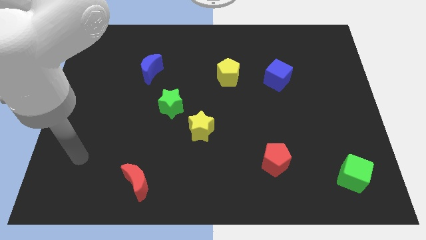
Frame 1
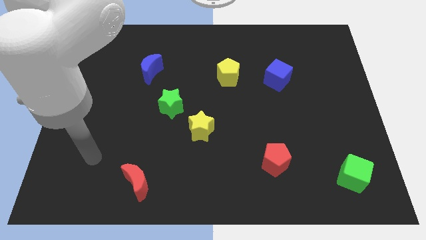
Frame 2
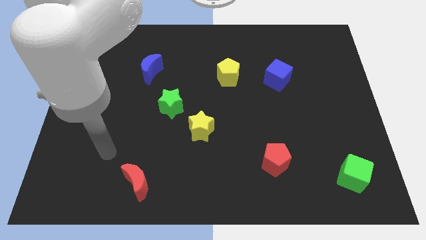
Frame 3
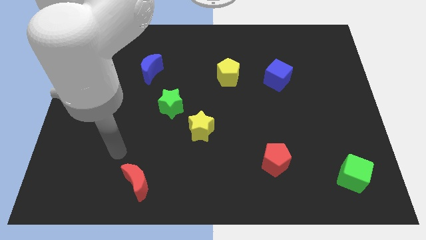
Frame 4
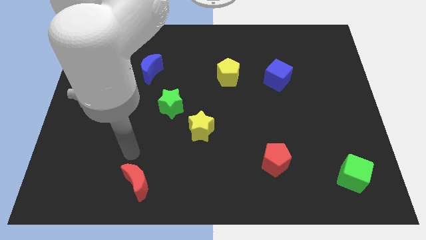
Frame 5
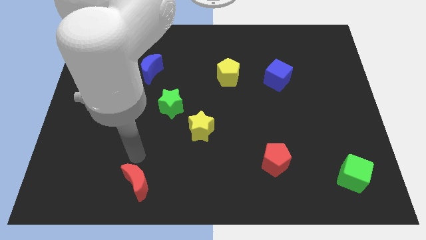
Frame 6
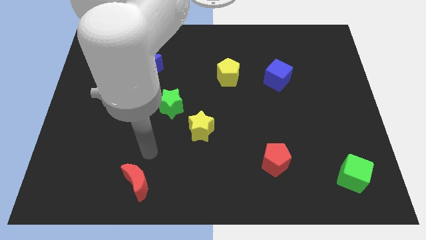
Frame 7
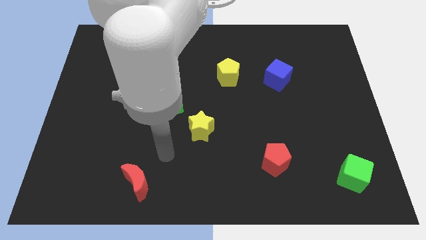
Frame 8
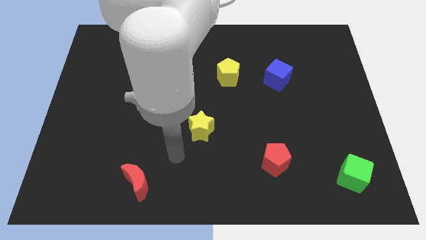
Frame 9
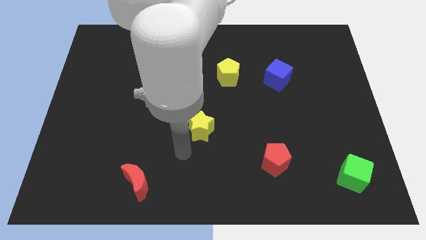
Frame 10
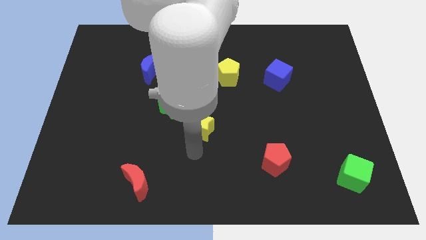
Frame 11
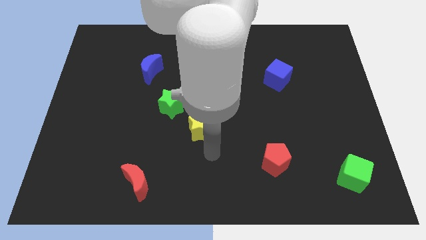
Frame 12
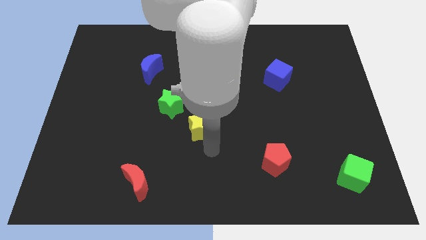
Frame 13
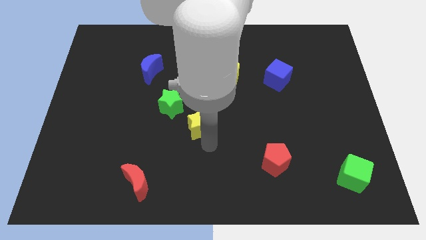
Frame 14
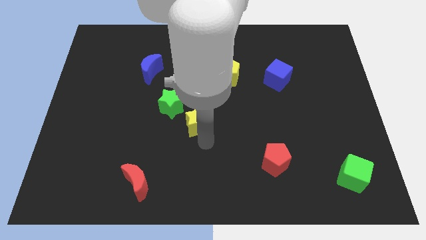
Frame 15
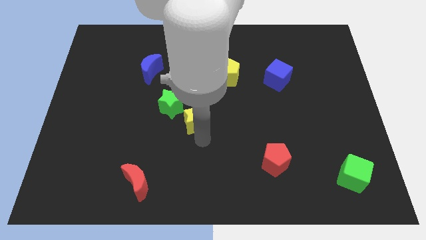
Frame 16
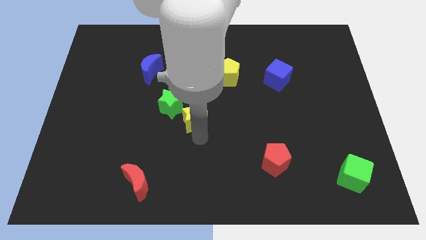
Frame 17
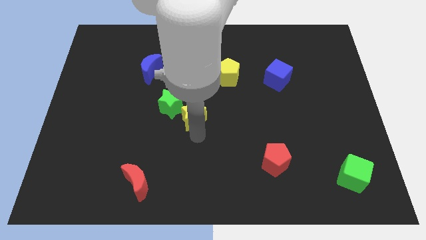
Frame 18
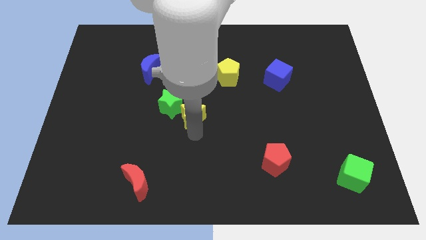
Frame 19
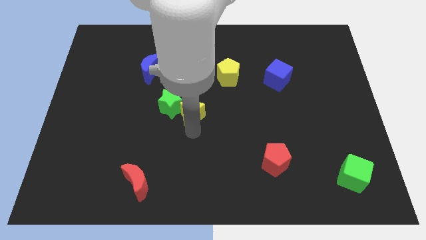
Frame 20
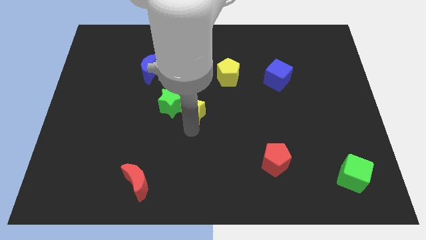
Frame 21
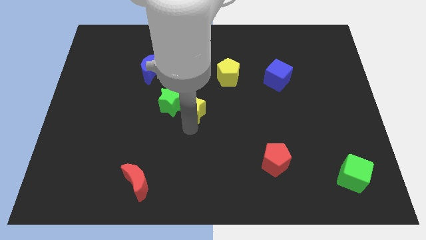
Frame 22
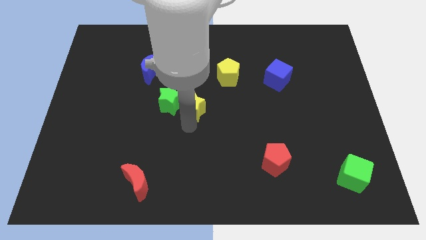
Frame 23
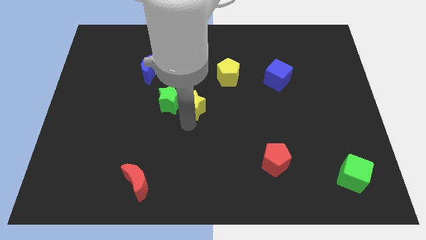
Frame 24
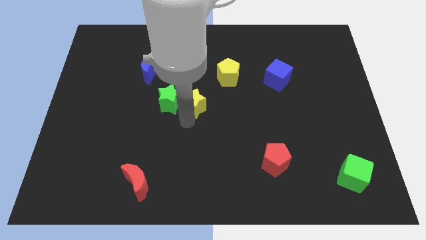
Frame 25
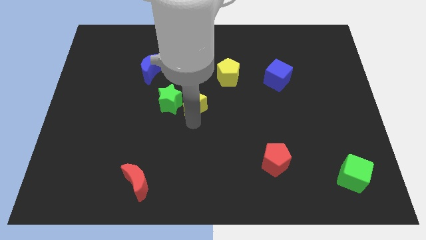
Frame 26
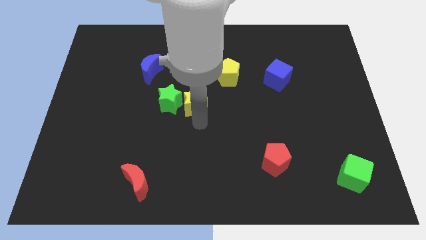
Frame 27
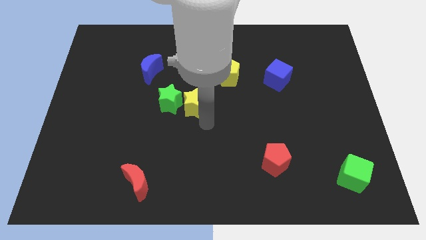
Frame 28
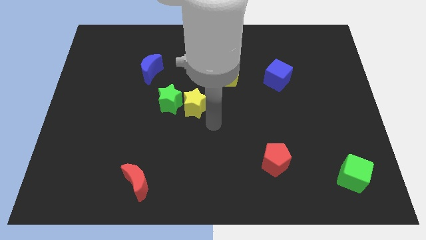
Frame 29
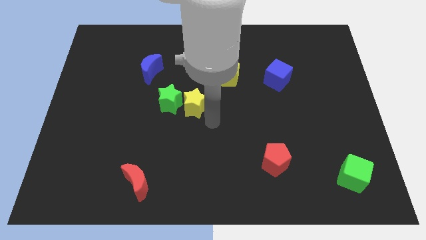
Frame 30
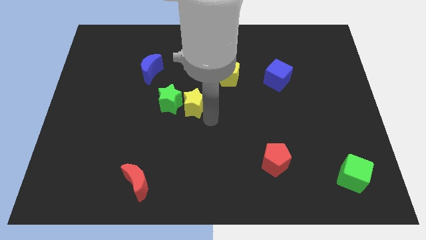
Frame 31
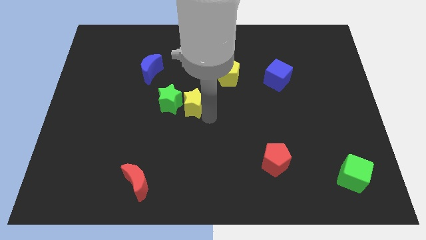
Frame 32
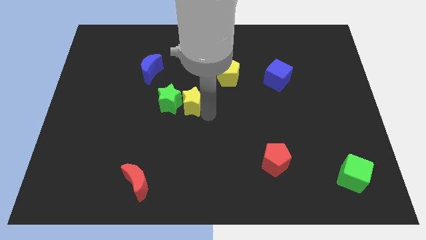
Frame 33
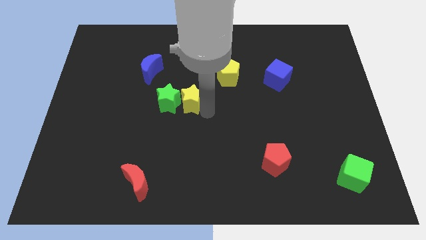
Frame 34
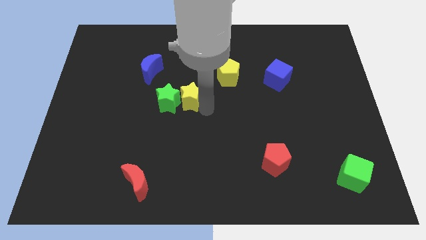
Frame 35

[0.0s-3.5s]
slightly move the yellow star up and left

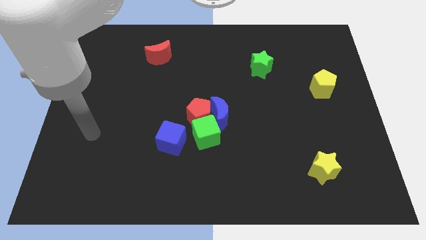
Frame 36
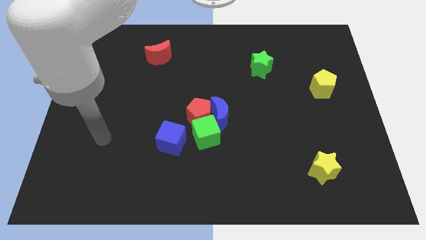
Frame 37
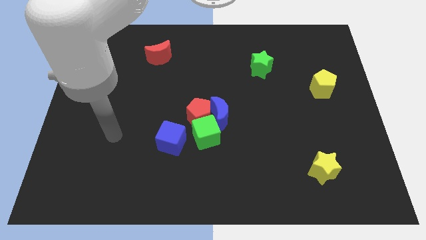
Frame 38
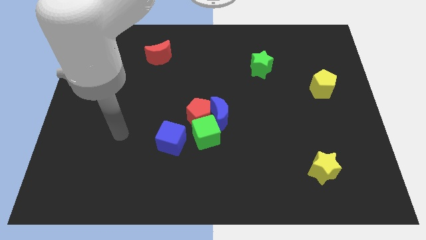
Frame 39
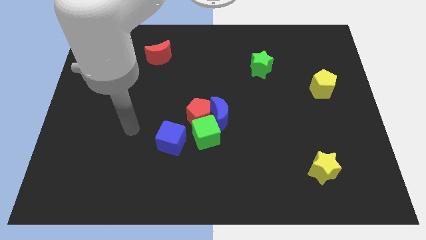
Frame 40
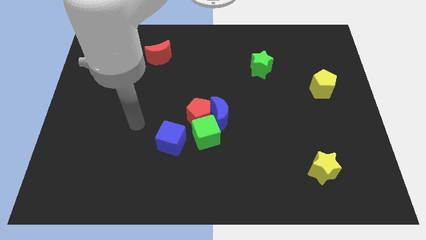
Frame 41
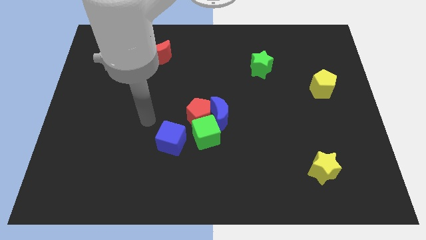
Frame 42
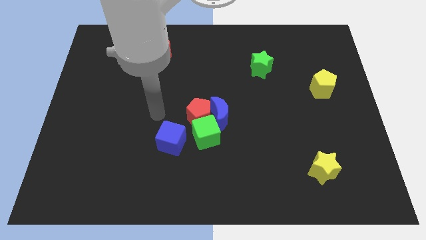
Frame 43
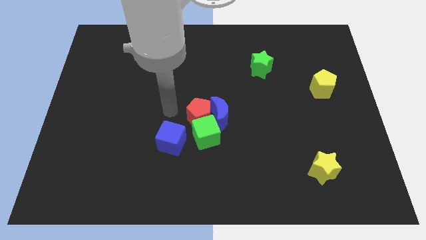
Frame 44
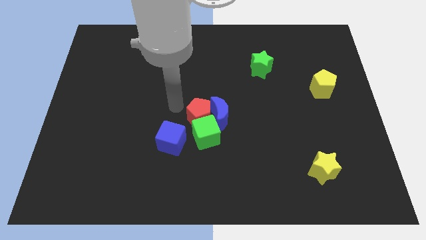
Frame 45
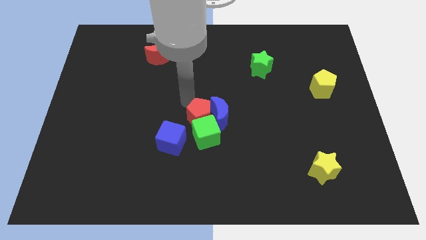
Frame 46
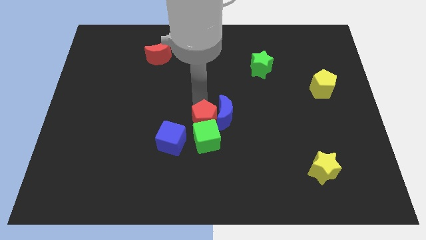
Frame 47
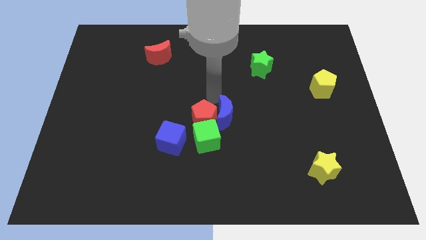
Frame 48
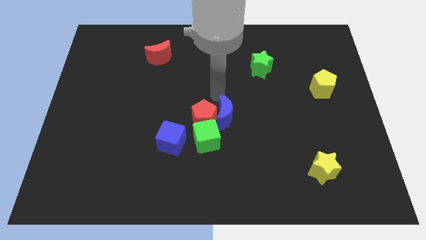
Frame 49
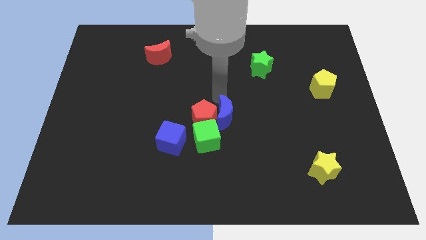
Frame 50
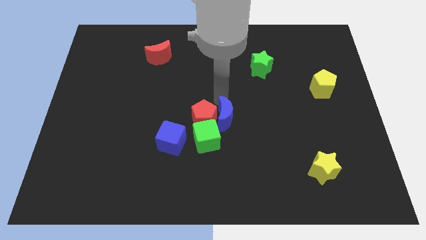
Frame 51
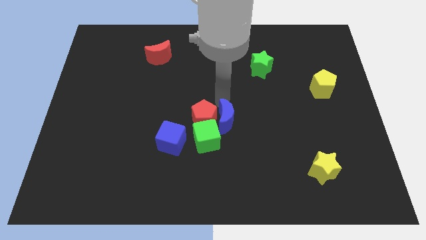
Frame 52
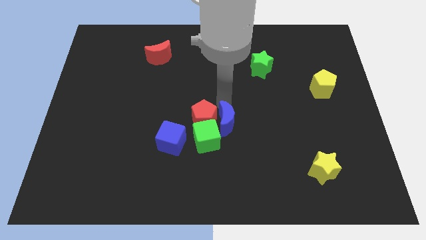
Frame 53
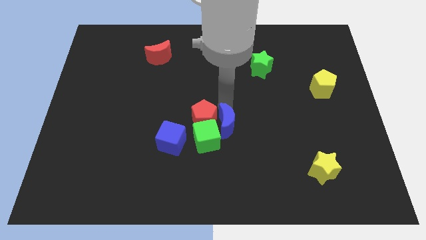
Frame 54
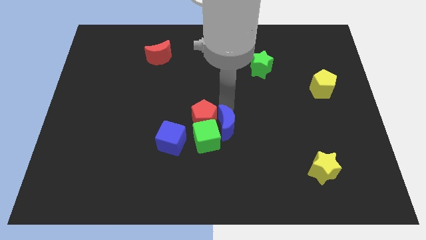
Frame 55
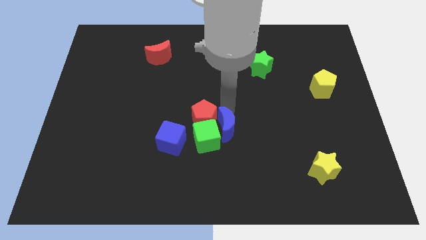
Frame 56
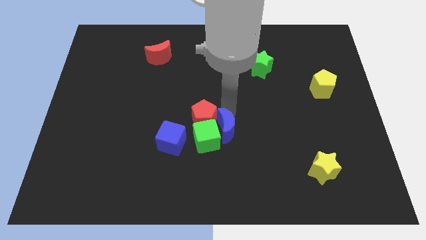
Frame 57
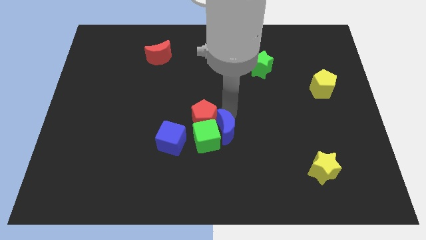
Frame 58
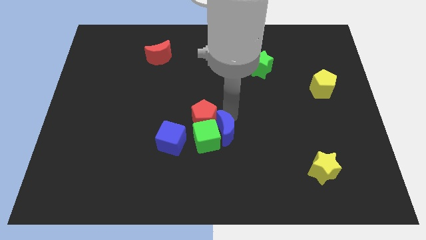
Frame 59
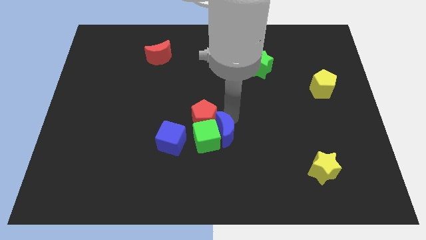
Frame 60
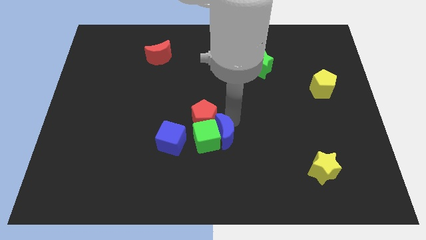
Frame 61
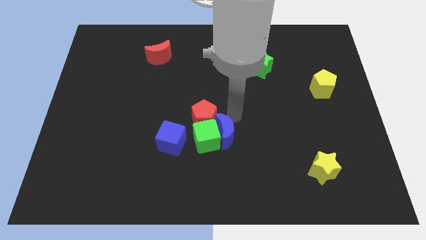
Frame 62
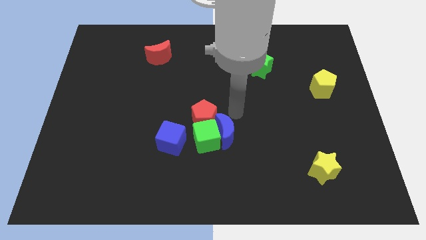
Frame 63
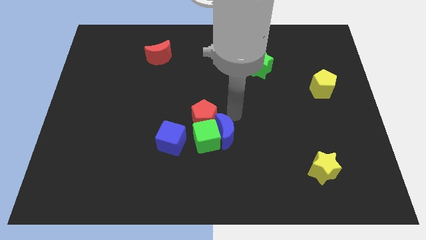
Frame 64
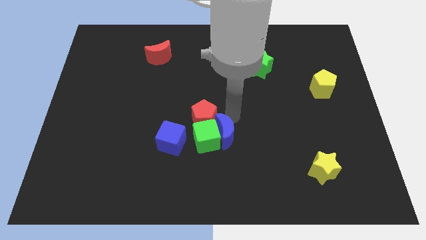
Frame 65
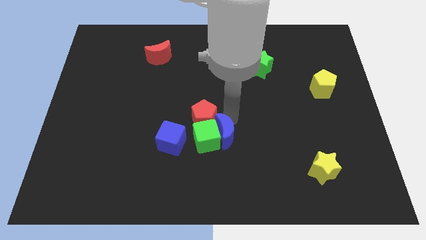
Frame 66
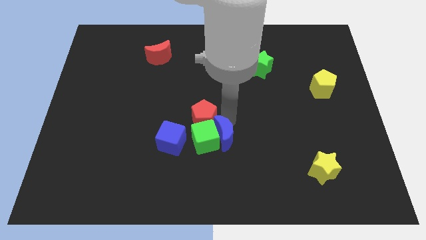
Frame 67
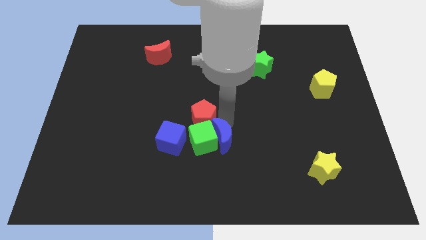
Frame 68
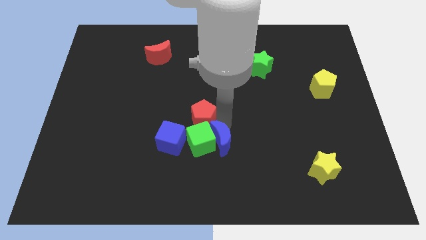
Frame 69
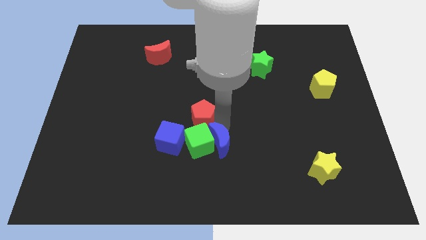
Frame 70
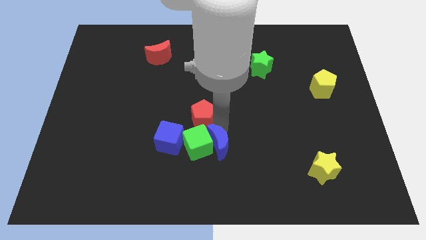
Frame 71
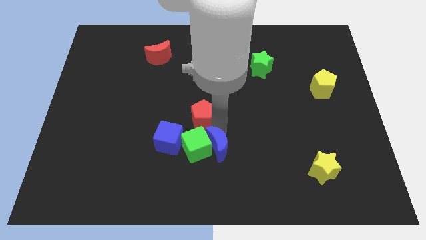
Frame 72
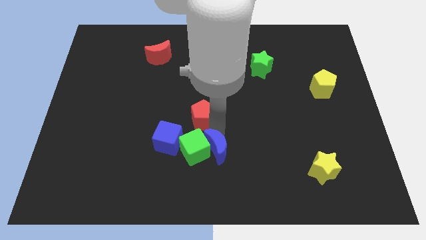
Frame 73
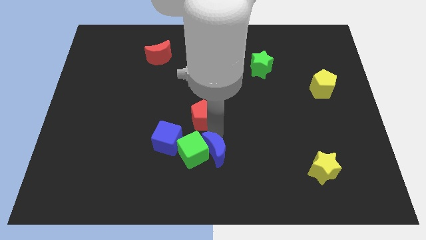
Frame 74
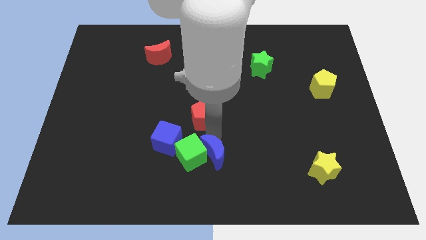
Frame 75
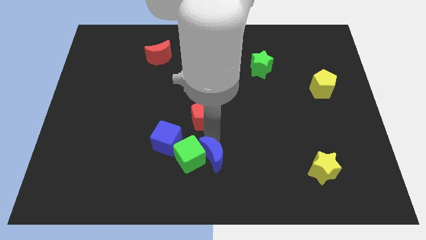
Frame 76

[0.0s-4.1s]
slightly push the blue moon diagonally down and to the left
